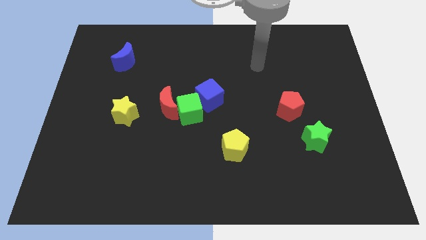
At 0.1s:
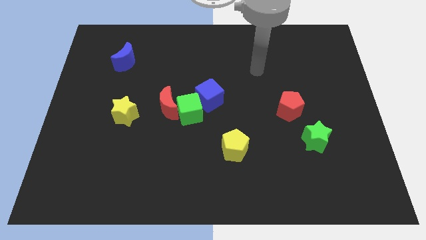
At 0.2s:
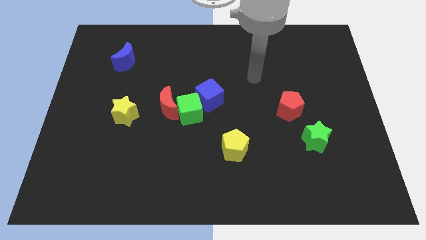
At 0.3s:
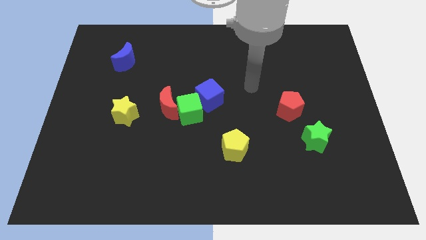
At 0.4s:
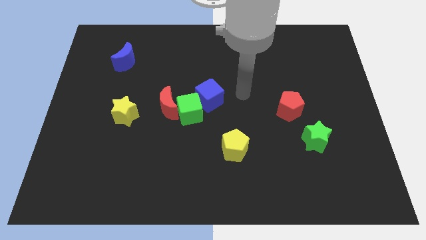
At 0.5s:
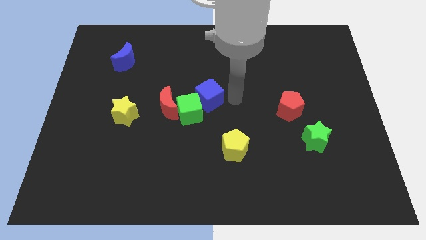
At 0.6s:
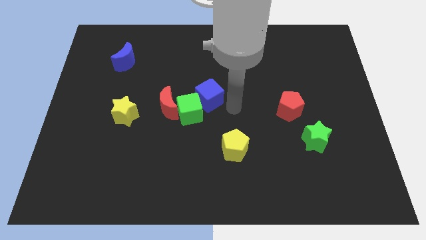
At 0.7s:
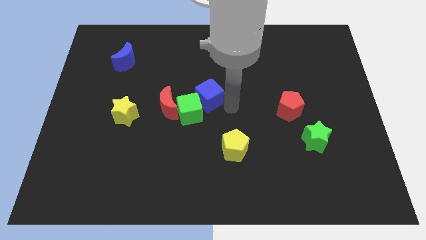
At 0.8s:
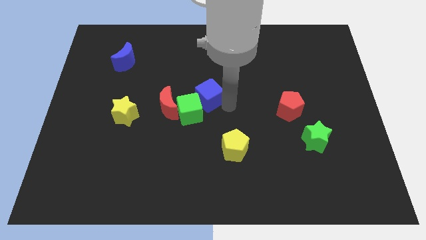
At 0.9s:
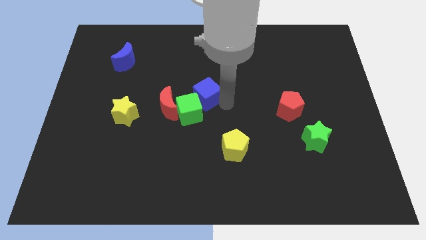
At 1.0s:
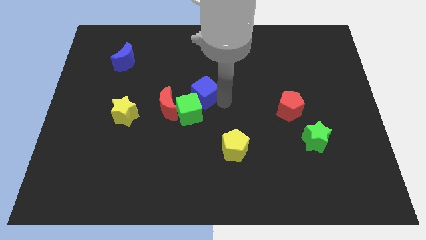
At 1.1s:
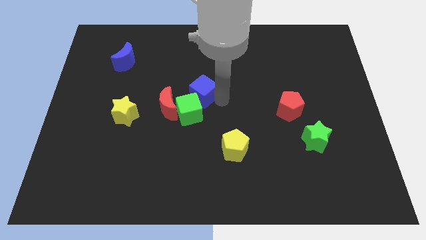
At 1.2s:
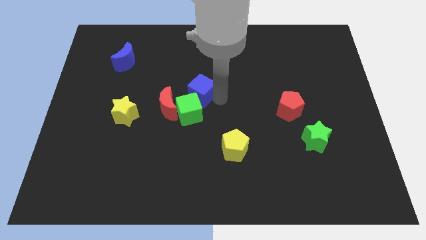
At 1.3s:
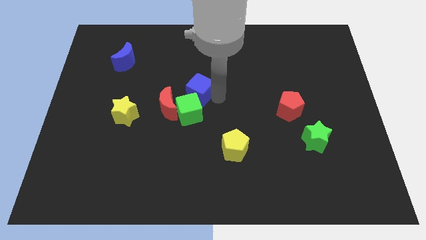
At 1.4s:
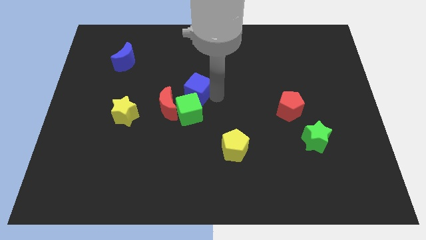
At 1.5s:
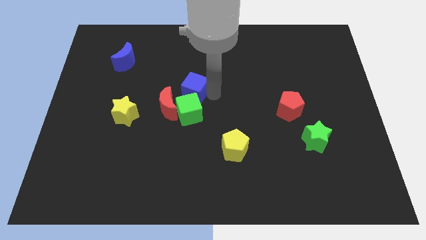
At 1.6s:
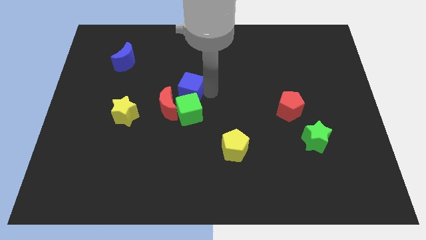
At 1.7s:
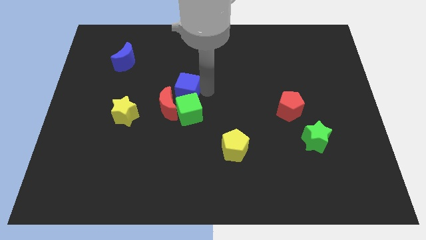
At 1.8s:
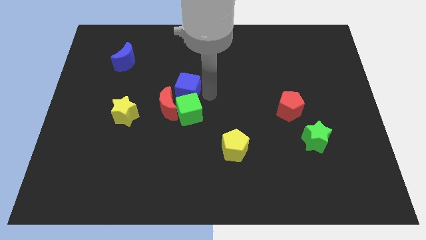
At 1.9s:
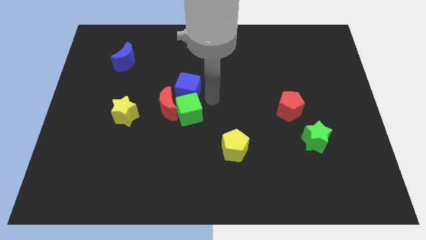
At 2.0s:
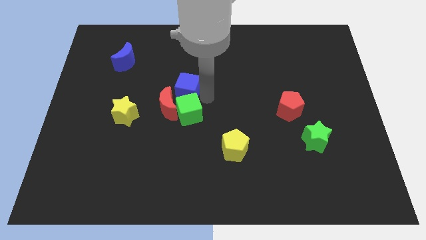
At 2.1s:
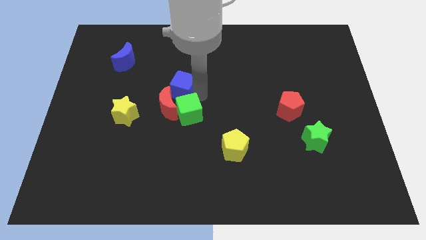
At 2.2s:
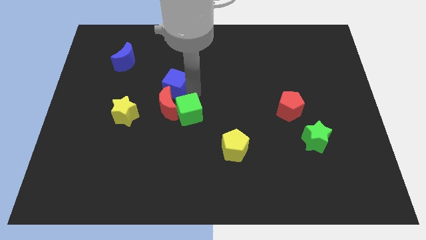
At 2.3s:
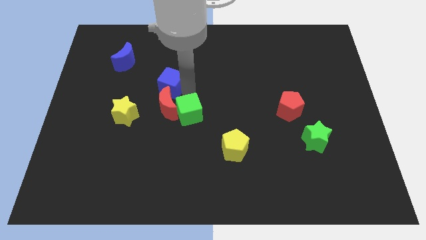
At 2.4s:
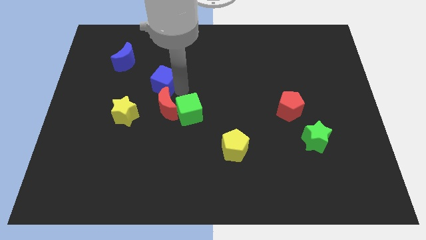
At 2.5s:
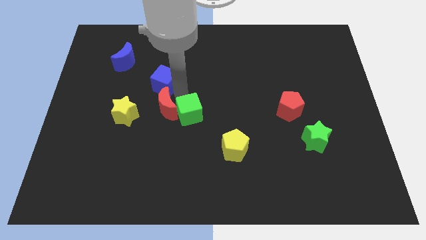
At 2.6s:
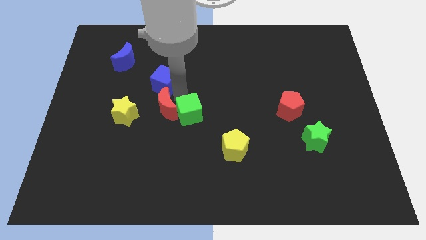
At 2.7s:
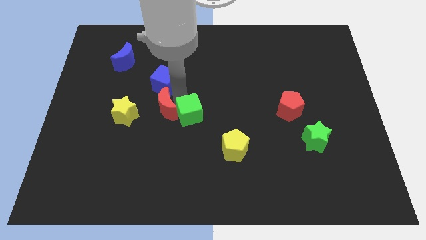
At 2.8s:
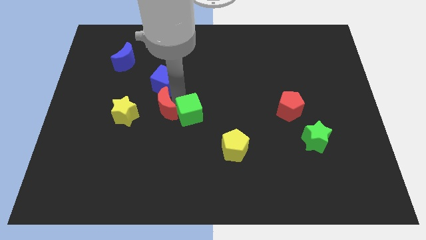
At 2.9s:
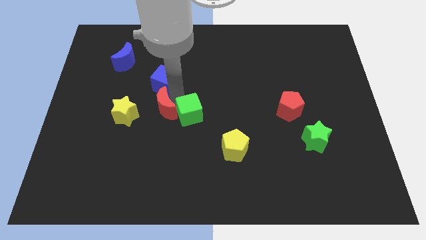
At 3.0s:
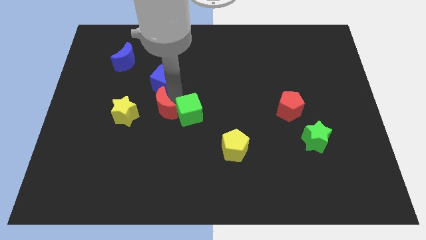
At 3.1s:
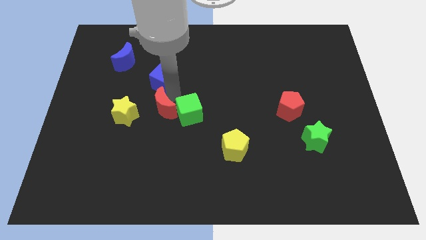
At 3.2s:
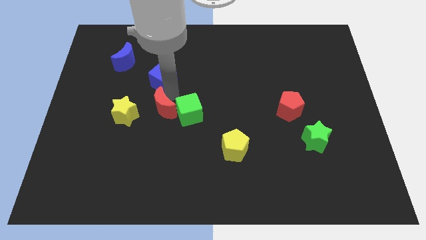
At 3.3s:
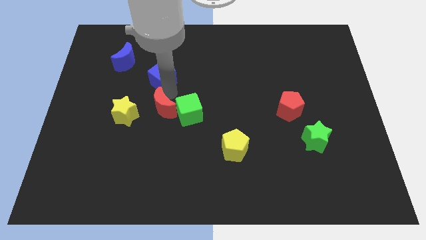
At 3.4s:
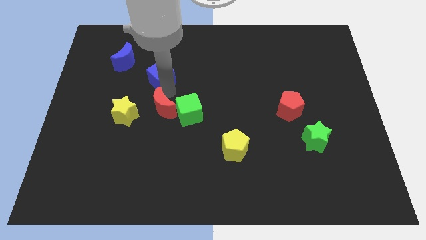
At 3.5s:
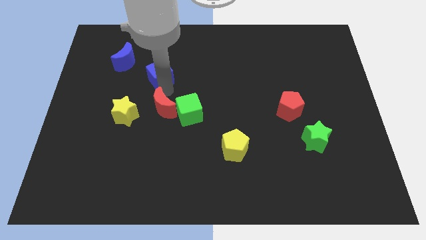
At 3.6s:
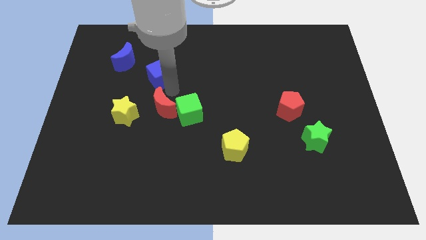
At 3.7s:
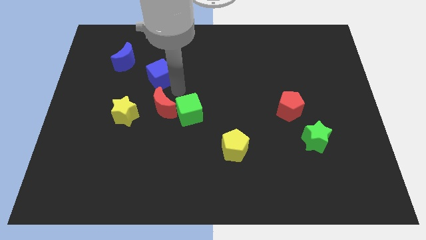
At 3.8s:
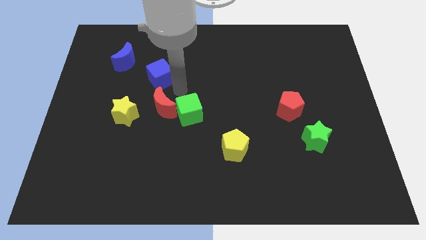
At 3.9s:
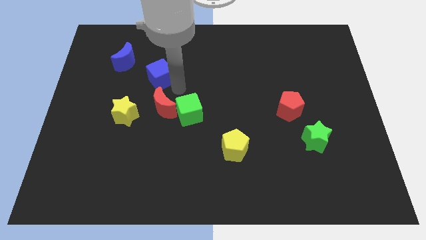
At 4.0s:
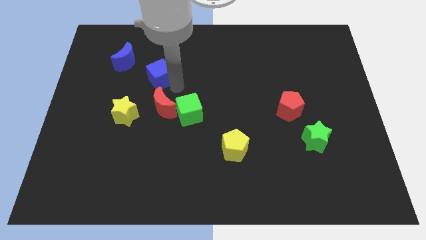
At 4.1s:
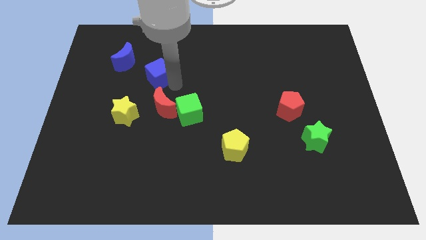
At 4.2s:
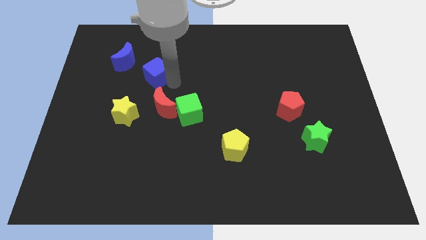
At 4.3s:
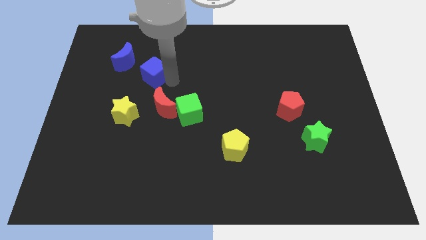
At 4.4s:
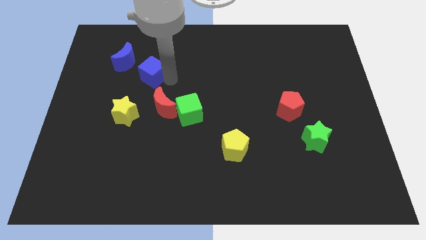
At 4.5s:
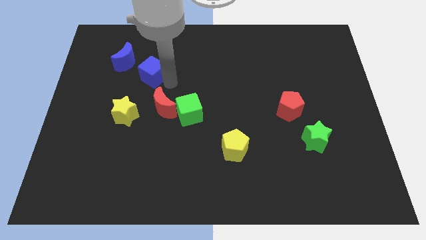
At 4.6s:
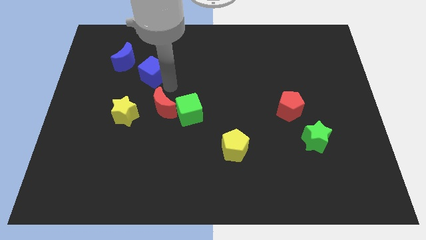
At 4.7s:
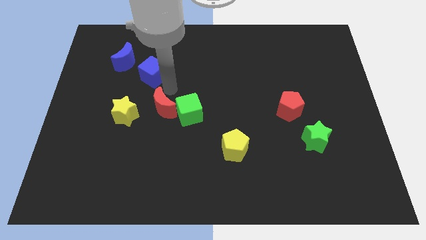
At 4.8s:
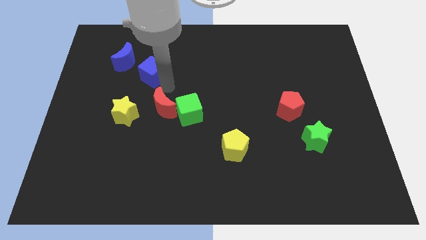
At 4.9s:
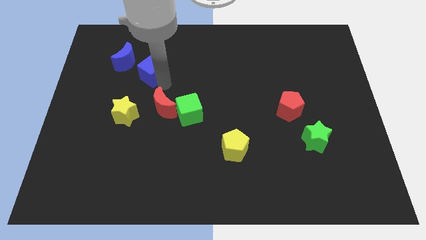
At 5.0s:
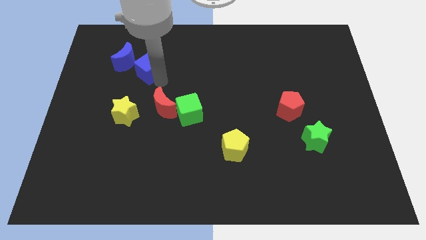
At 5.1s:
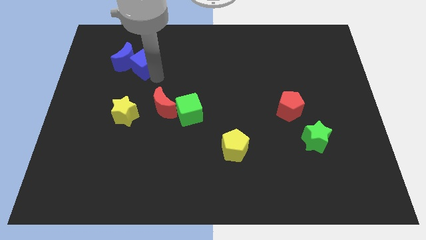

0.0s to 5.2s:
put the blue cube next to the blue moon

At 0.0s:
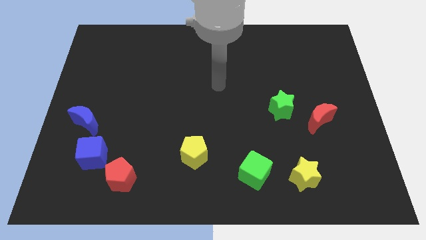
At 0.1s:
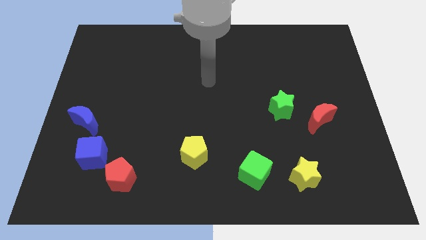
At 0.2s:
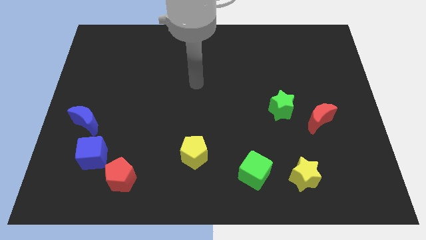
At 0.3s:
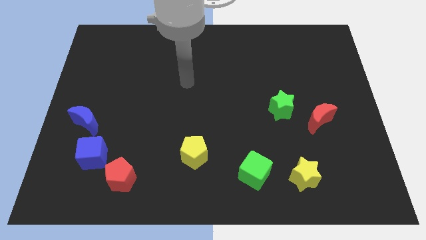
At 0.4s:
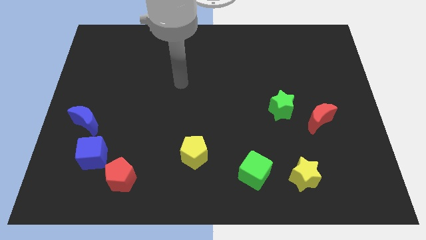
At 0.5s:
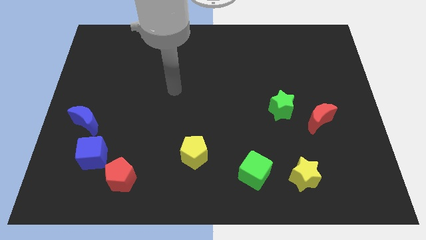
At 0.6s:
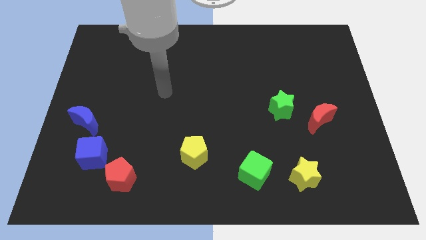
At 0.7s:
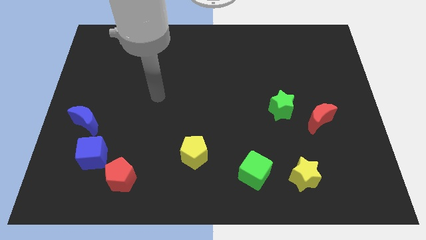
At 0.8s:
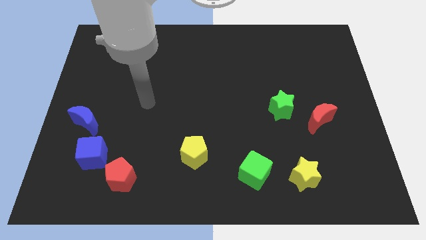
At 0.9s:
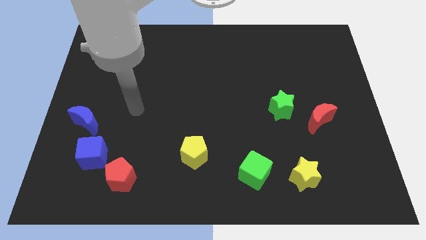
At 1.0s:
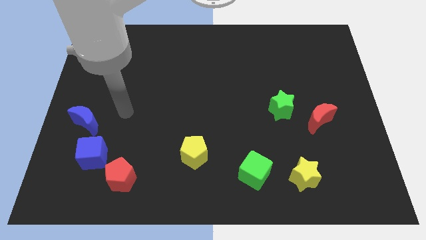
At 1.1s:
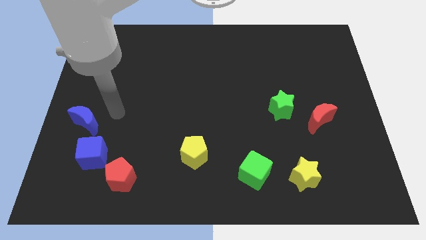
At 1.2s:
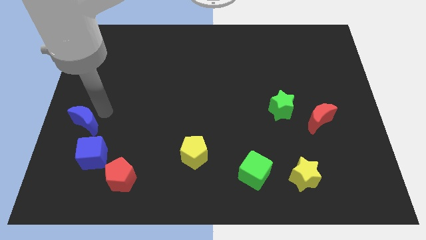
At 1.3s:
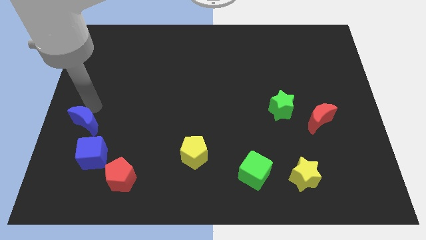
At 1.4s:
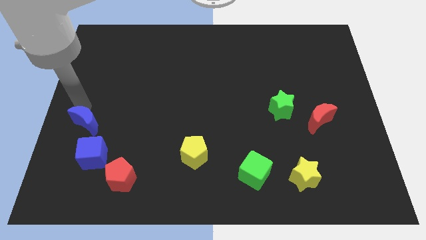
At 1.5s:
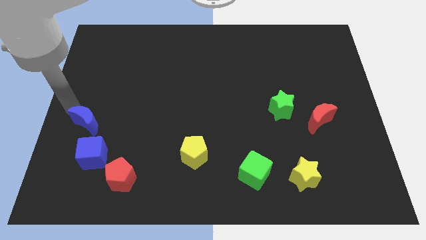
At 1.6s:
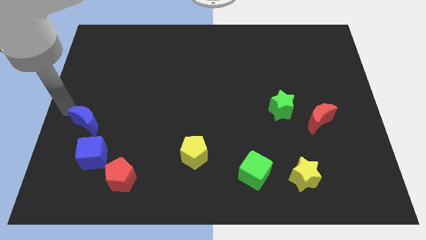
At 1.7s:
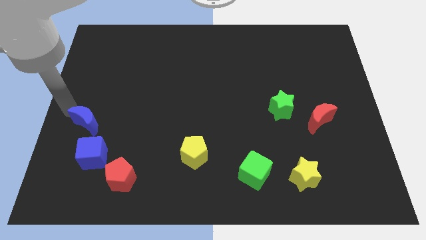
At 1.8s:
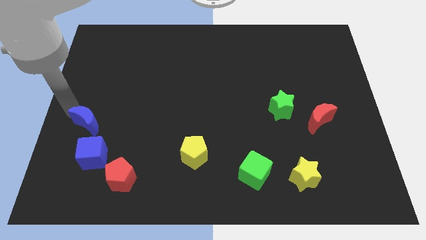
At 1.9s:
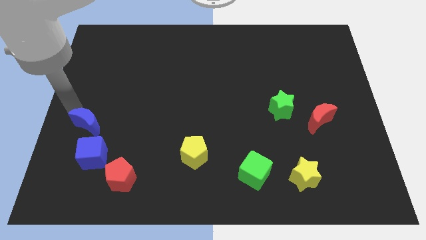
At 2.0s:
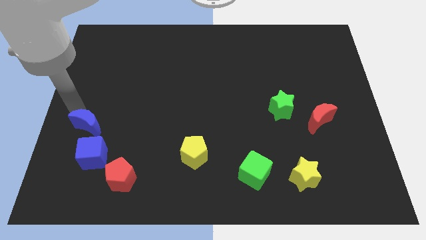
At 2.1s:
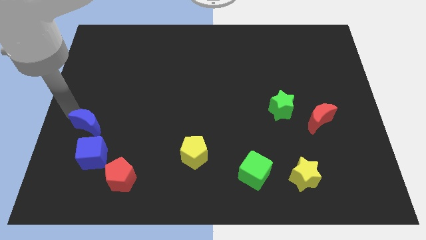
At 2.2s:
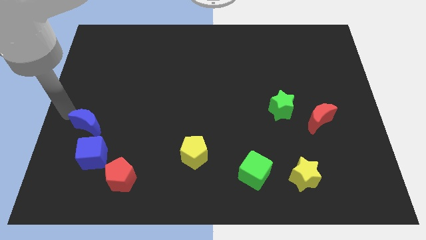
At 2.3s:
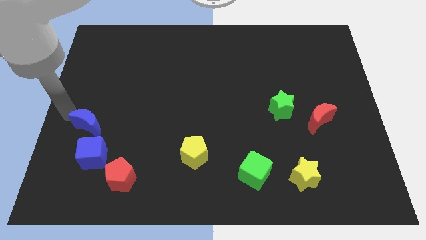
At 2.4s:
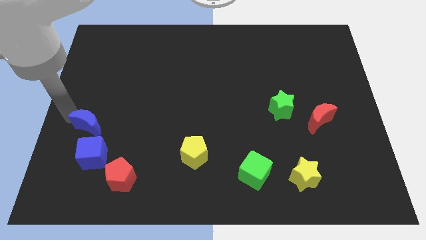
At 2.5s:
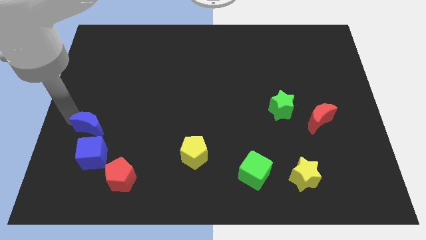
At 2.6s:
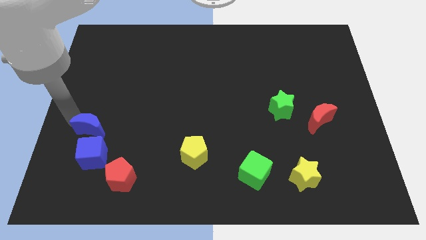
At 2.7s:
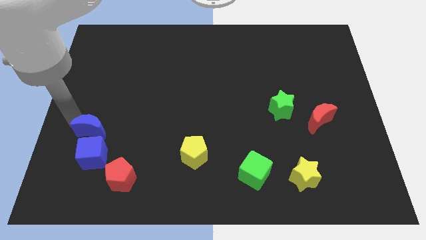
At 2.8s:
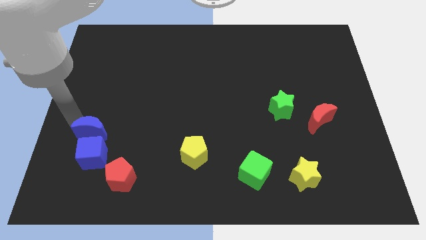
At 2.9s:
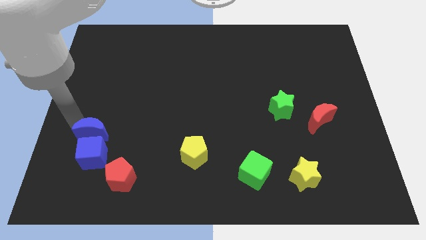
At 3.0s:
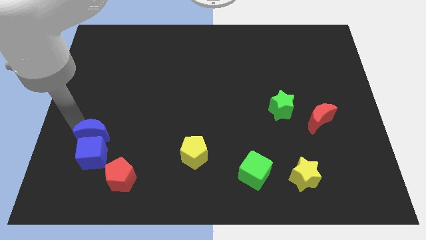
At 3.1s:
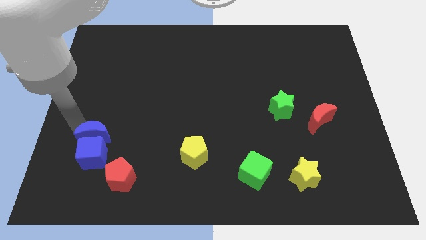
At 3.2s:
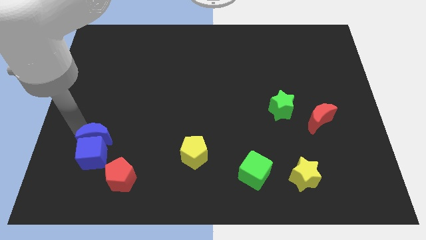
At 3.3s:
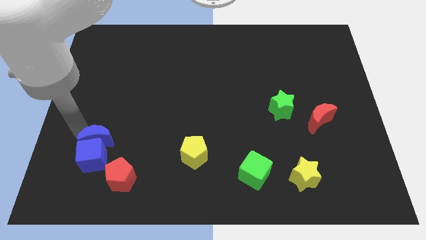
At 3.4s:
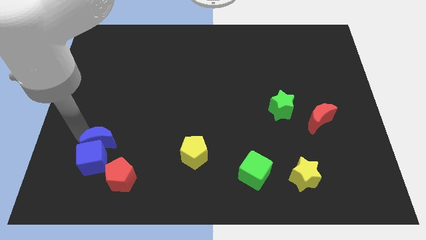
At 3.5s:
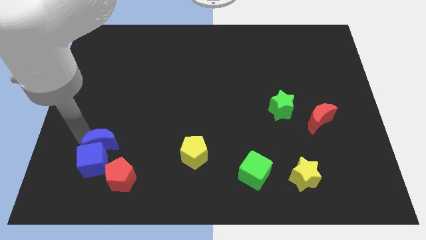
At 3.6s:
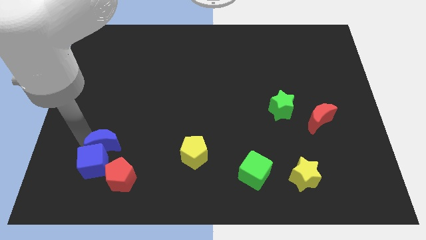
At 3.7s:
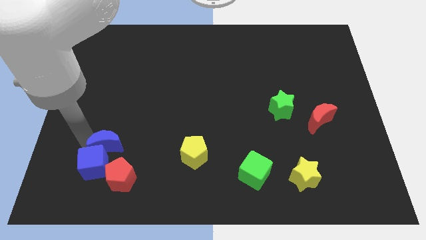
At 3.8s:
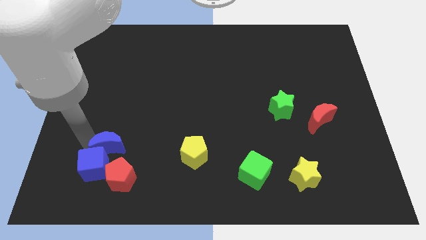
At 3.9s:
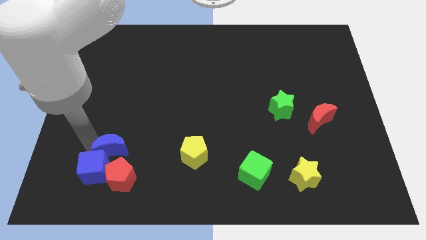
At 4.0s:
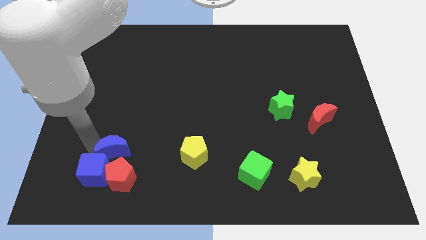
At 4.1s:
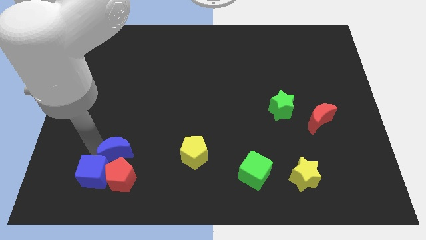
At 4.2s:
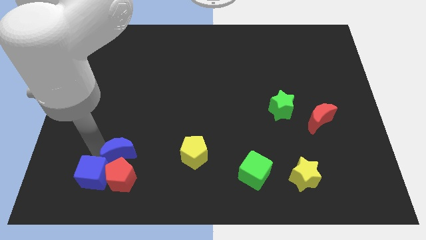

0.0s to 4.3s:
slide the blue moon towards the red pentagon
